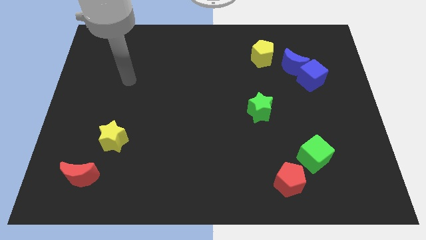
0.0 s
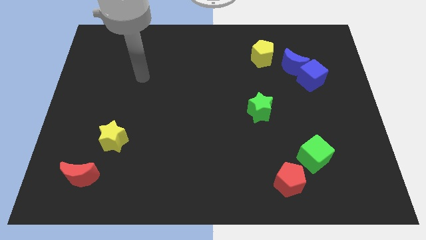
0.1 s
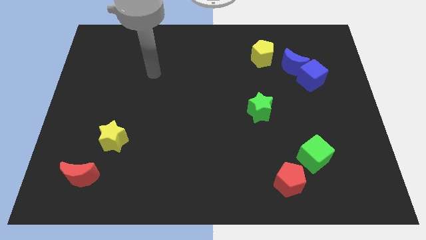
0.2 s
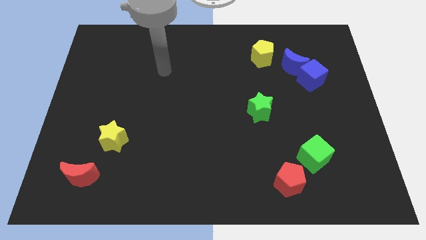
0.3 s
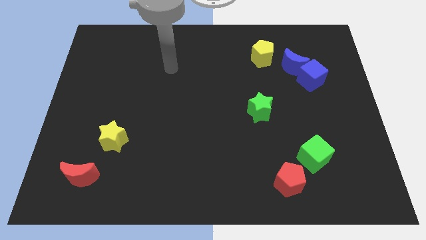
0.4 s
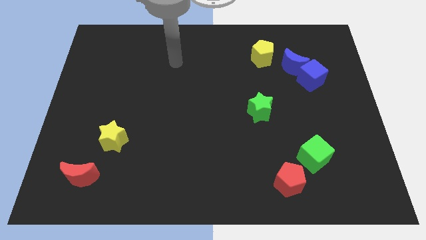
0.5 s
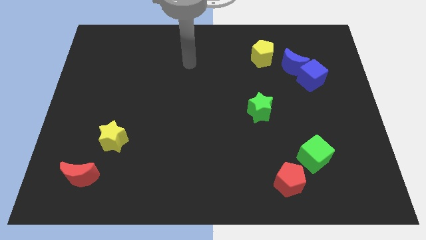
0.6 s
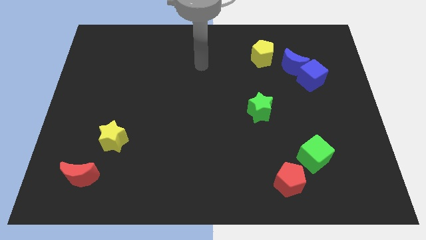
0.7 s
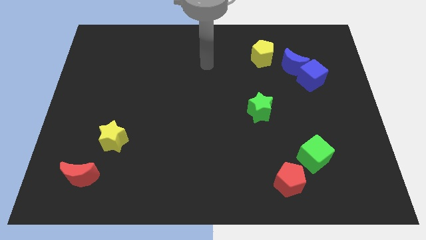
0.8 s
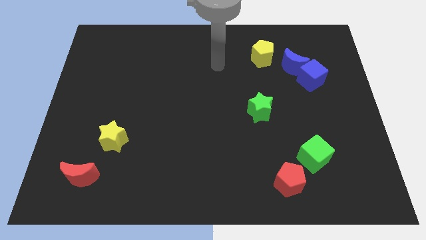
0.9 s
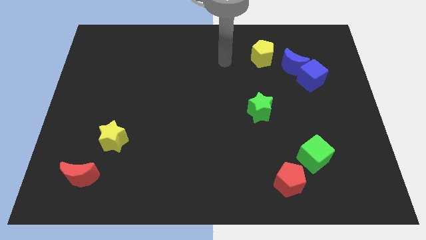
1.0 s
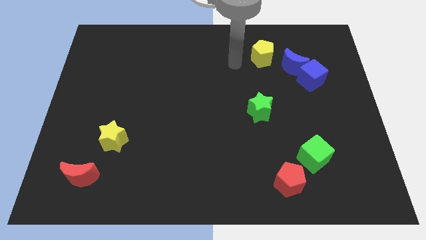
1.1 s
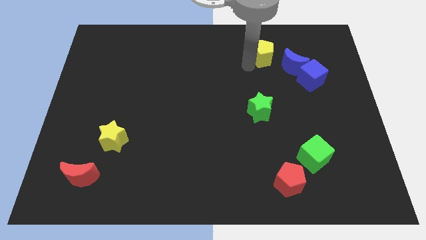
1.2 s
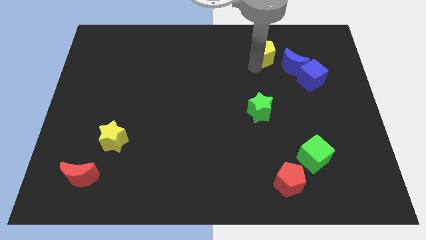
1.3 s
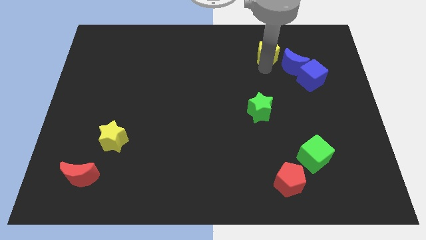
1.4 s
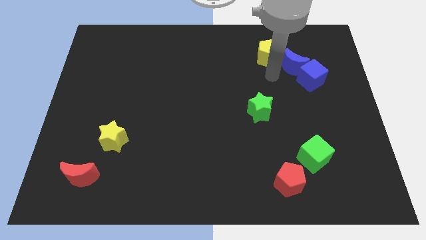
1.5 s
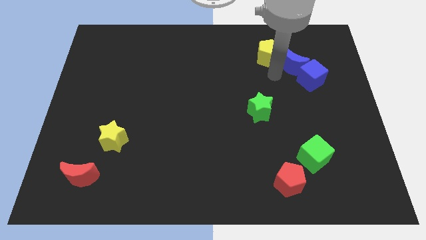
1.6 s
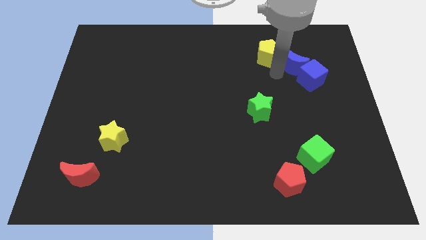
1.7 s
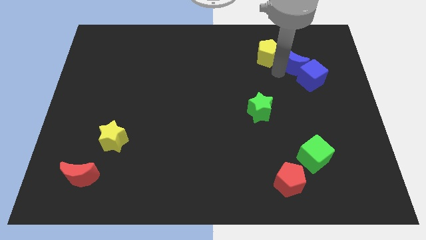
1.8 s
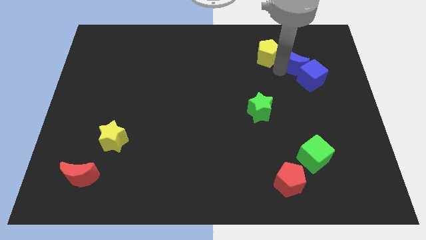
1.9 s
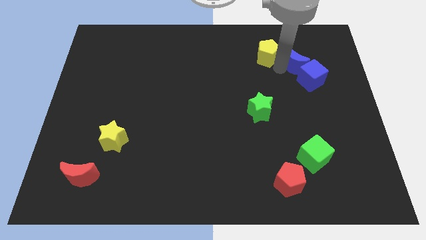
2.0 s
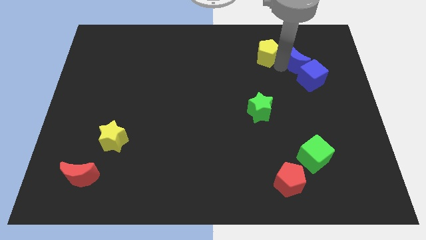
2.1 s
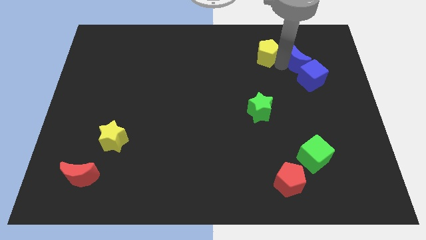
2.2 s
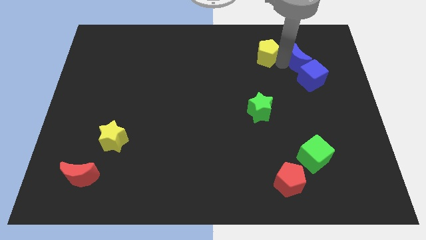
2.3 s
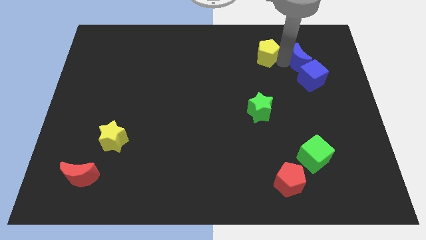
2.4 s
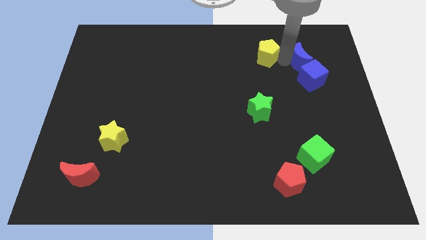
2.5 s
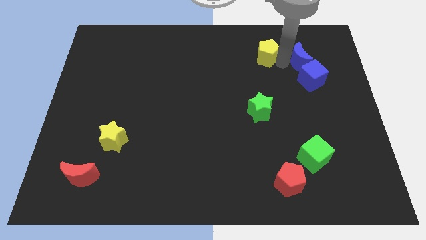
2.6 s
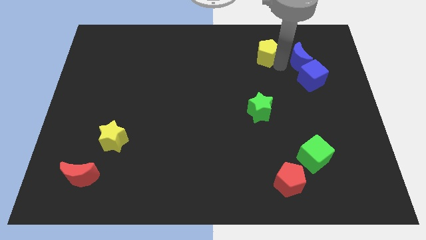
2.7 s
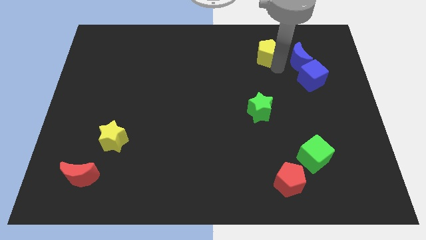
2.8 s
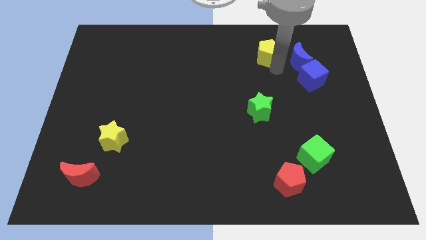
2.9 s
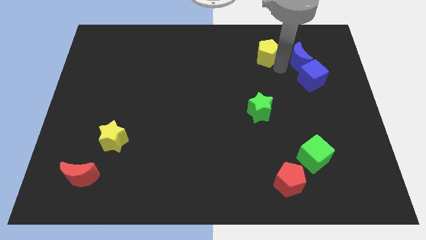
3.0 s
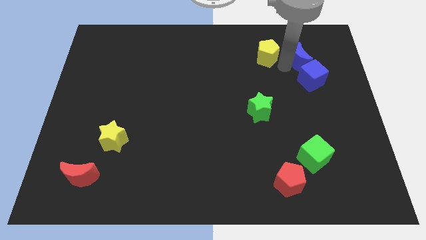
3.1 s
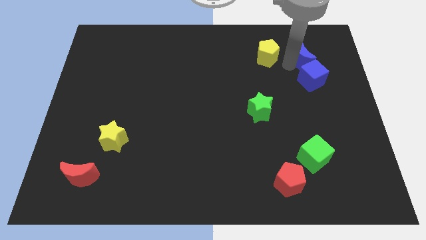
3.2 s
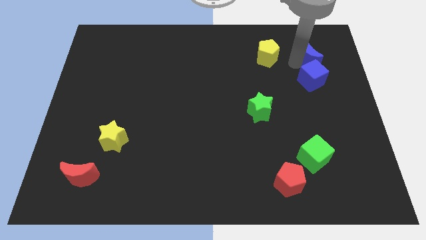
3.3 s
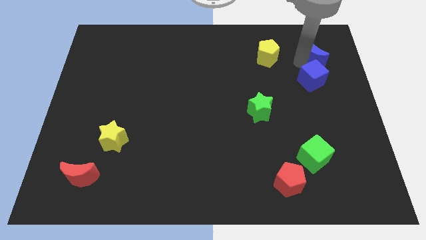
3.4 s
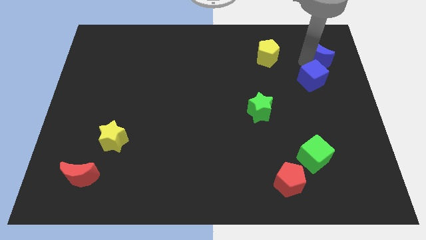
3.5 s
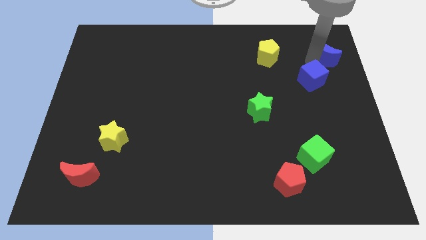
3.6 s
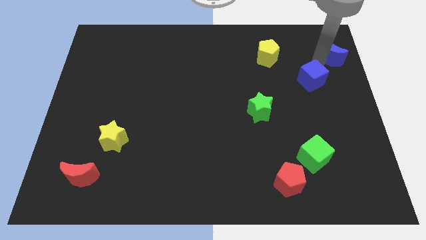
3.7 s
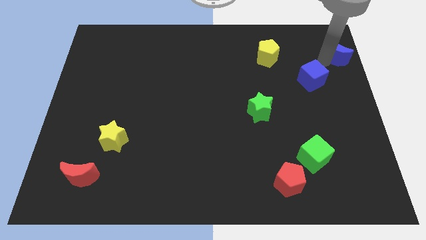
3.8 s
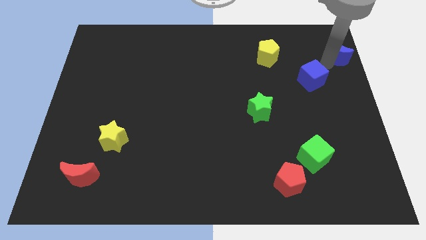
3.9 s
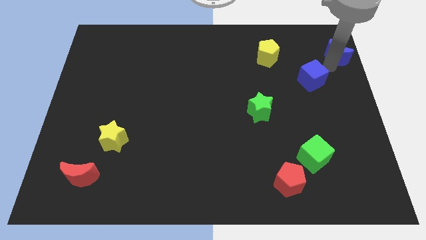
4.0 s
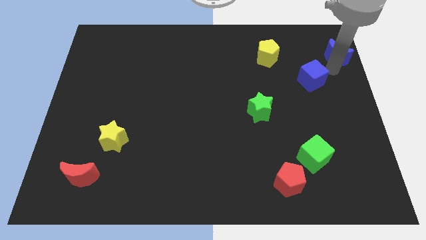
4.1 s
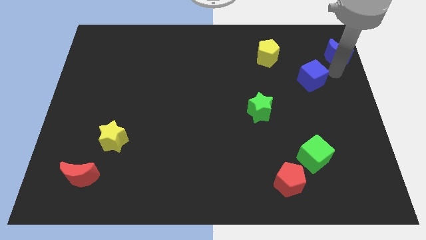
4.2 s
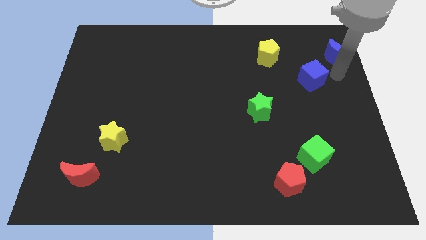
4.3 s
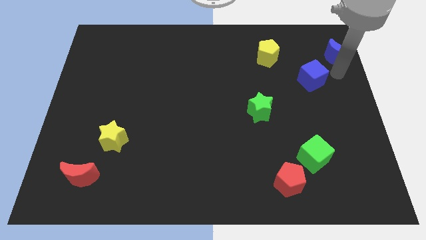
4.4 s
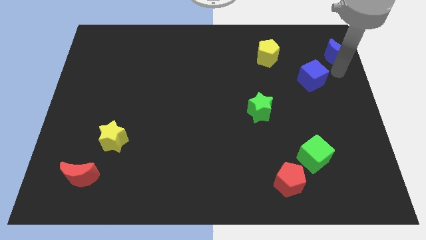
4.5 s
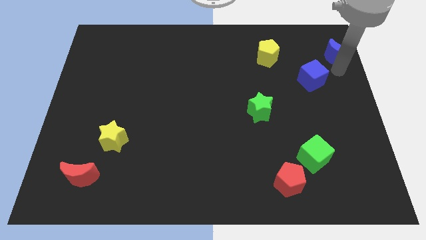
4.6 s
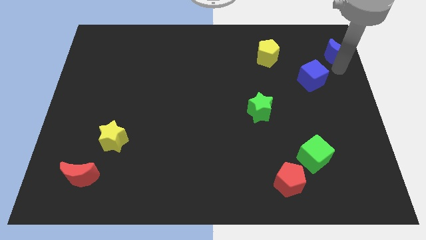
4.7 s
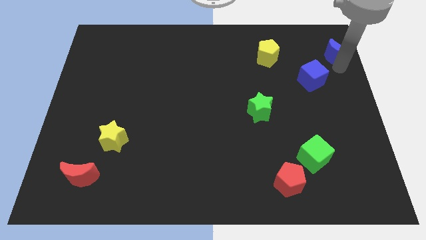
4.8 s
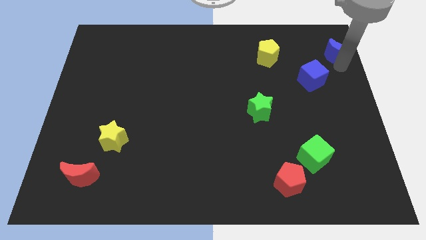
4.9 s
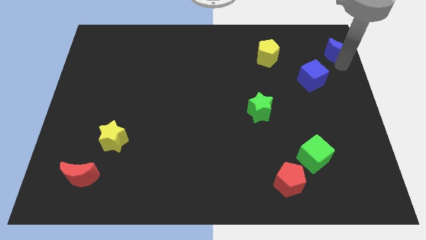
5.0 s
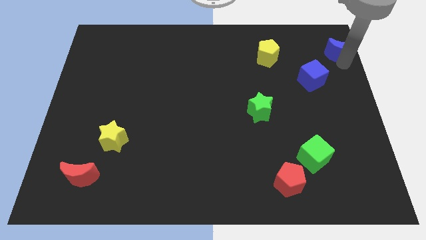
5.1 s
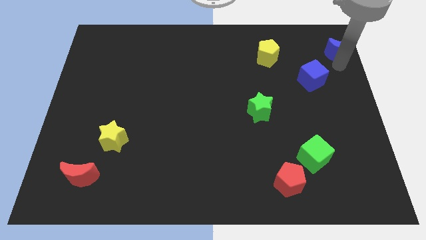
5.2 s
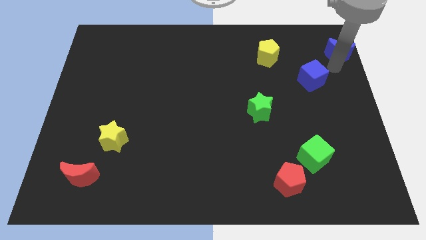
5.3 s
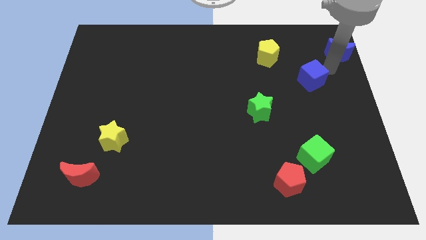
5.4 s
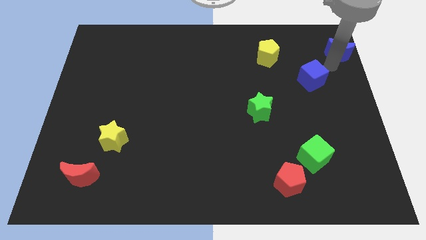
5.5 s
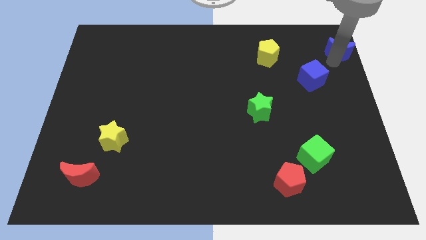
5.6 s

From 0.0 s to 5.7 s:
slide the blue moon to the top right
